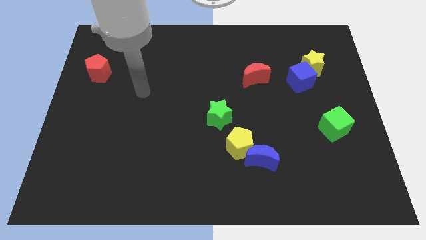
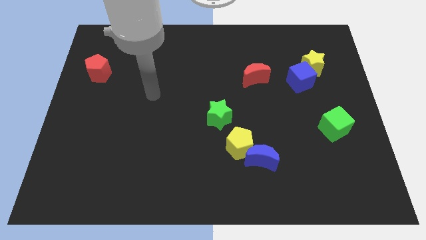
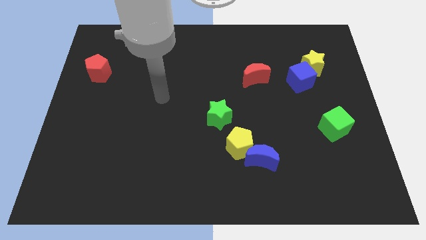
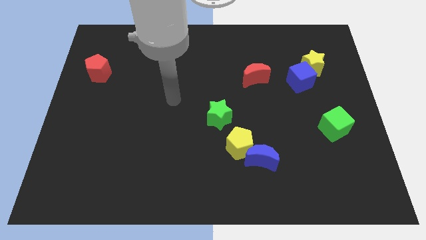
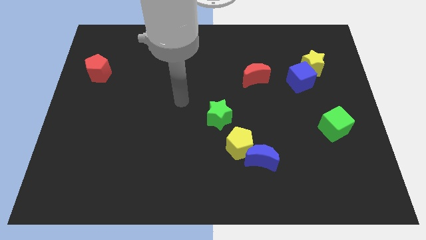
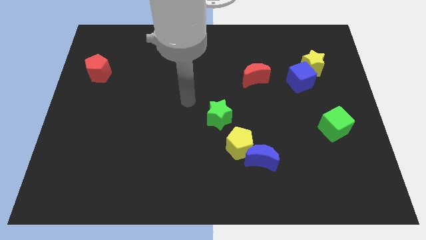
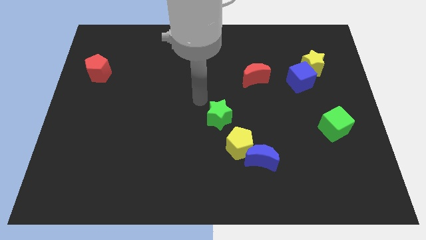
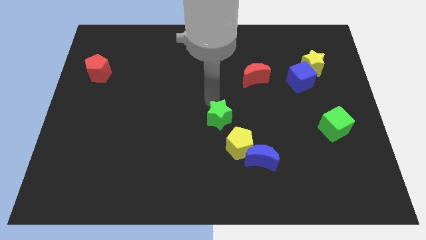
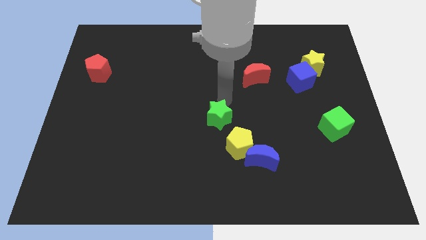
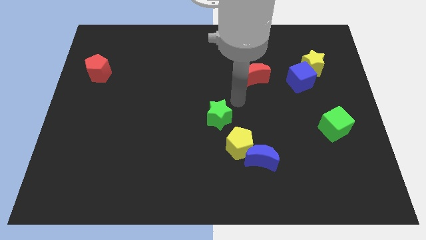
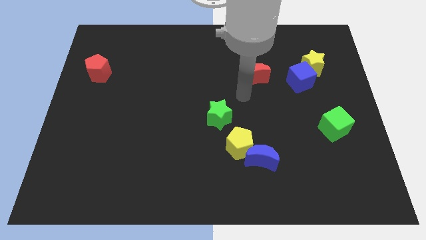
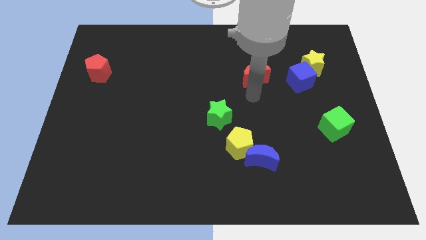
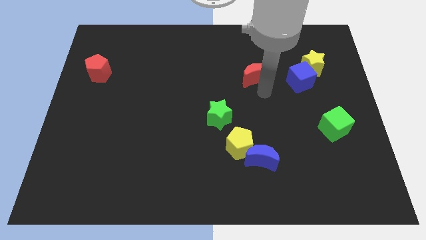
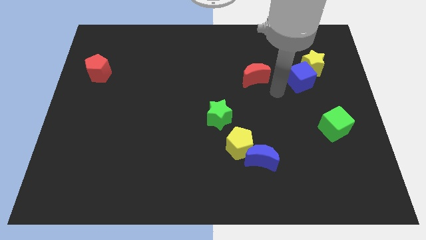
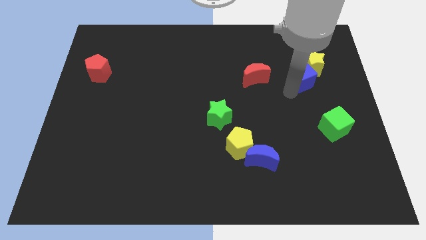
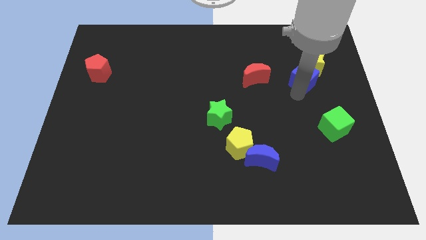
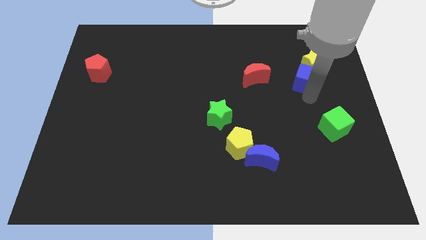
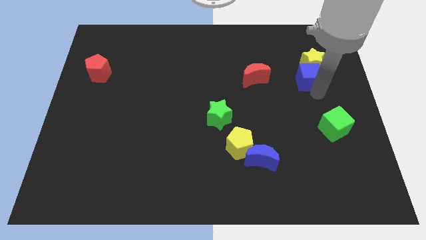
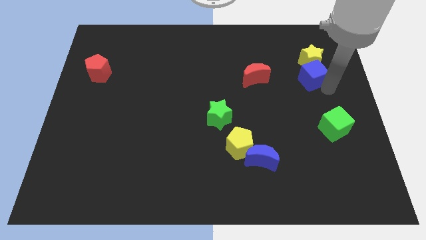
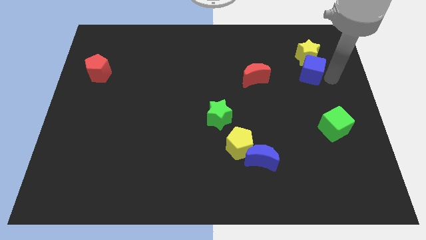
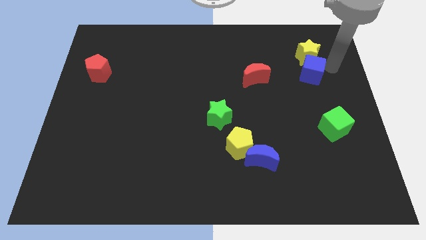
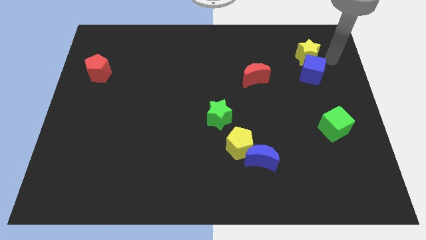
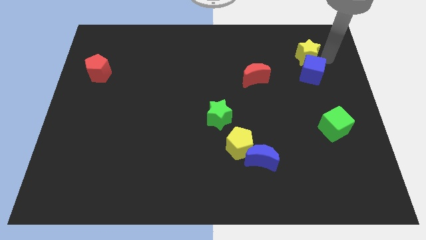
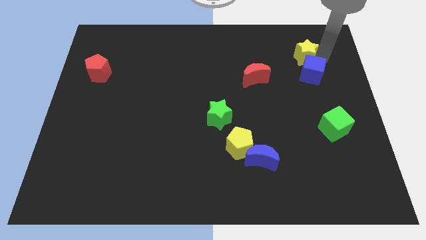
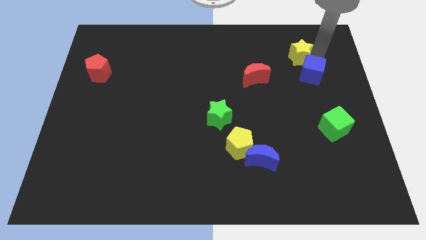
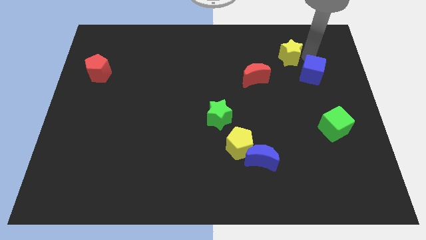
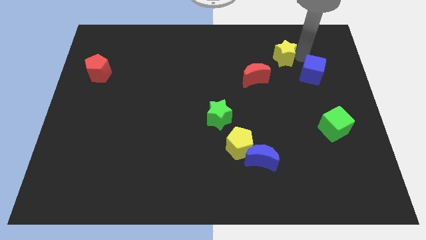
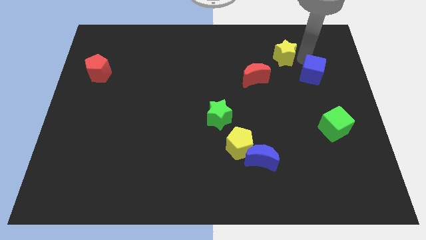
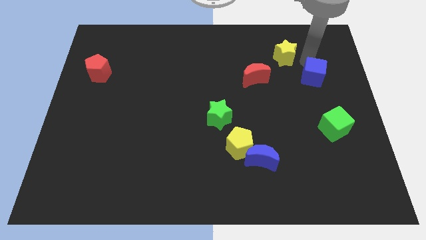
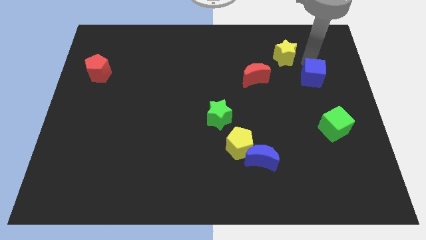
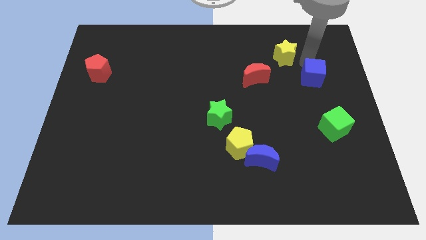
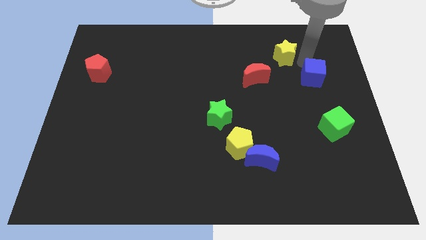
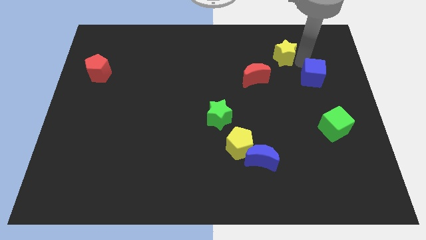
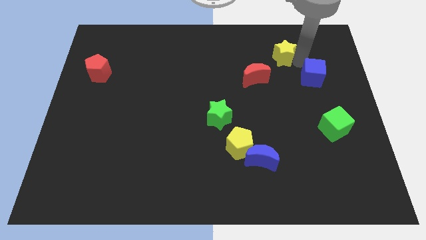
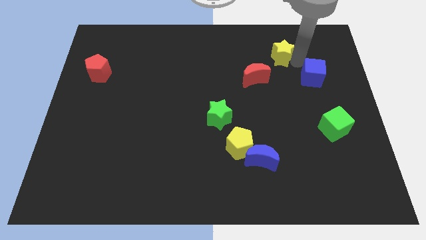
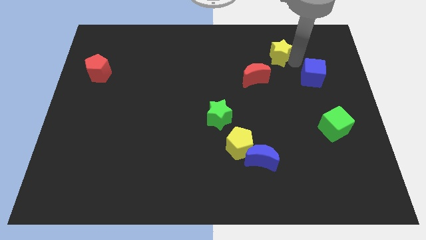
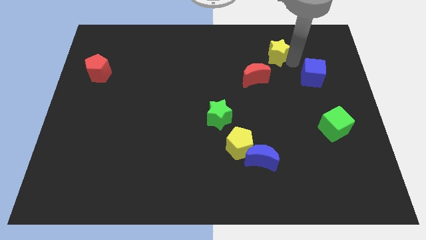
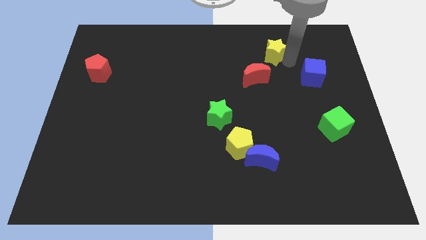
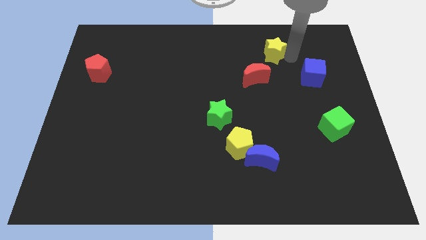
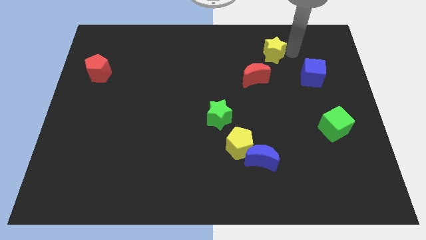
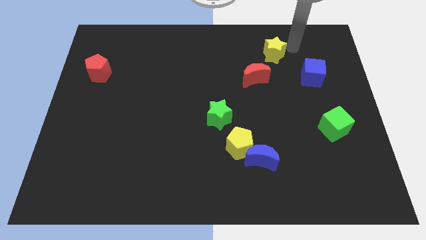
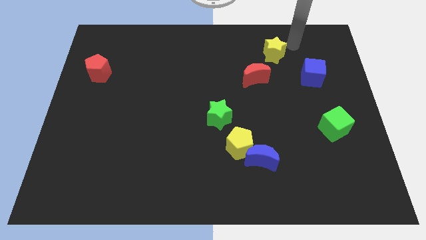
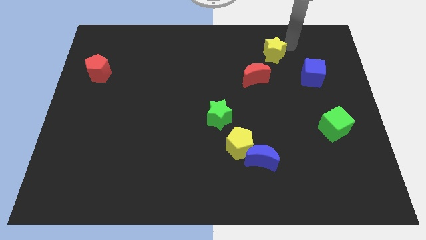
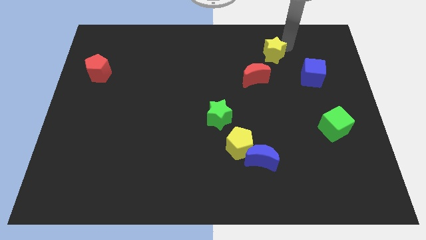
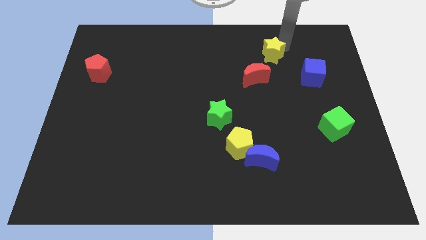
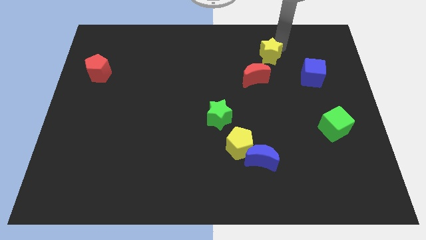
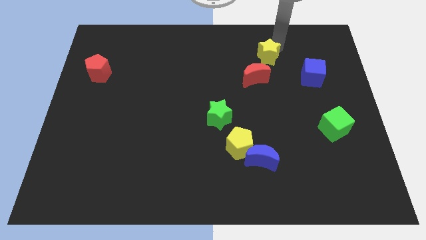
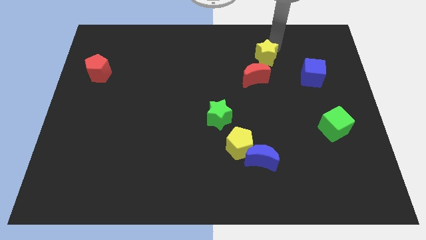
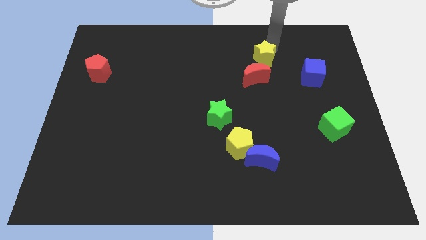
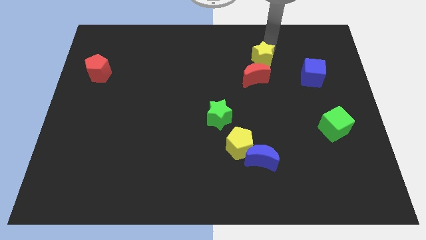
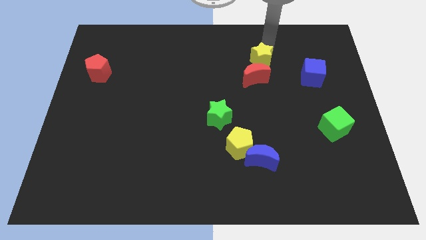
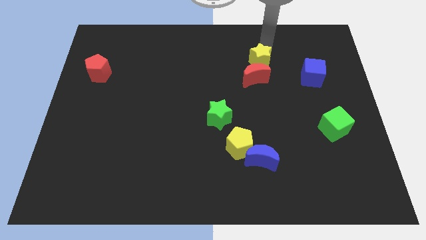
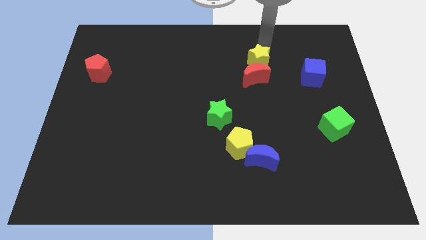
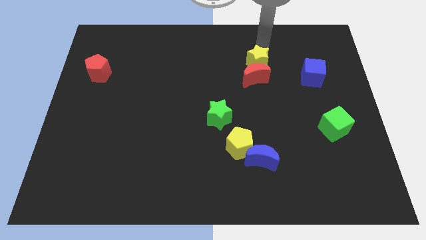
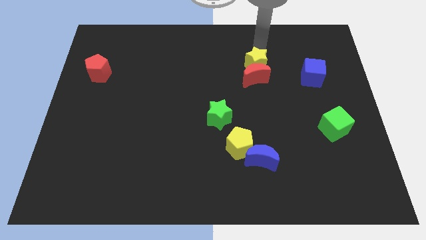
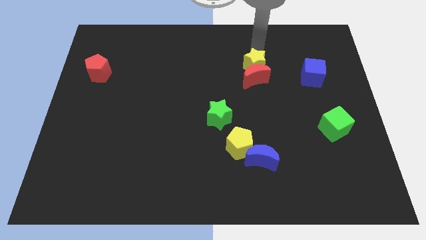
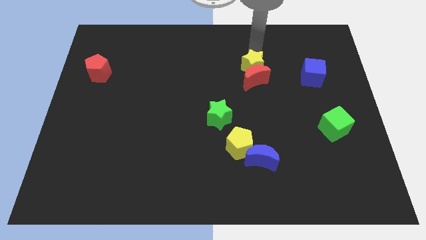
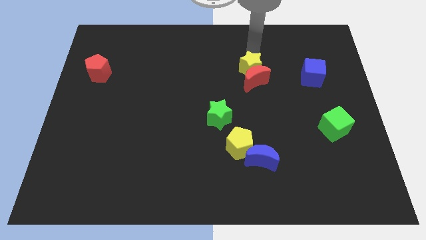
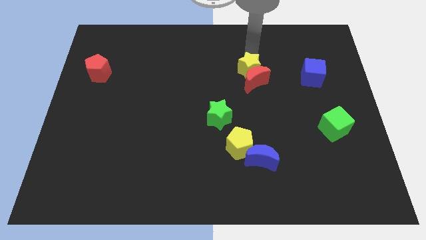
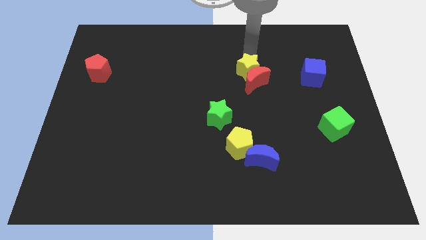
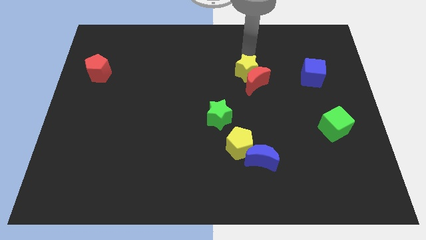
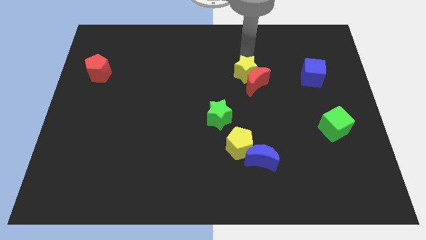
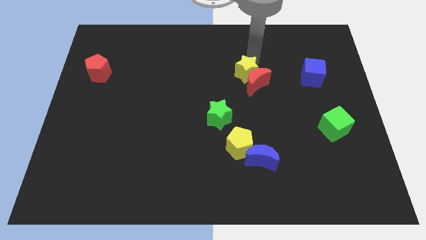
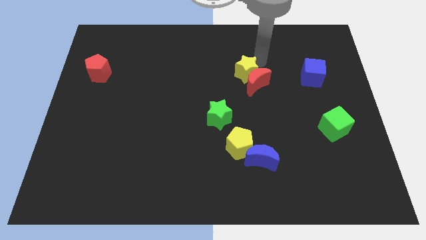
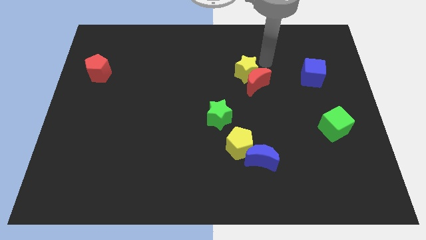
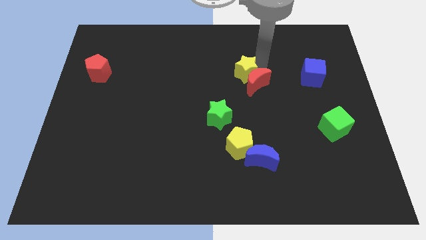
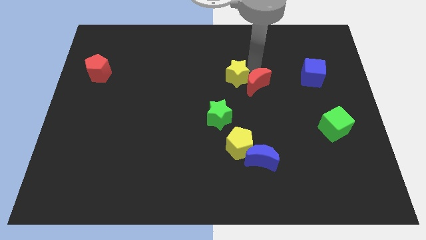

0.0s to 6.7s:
slide the yellow star above the green star
